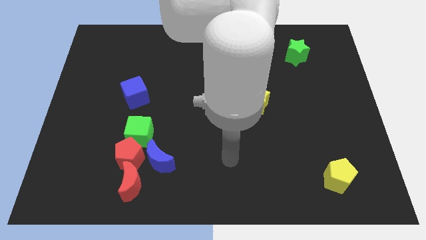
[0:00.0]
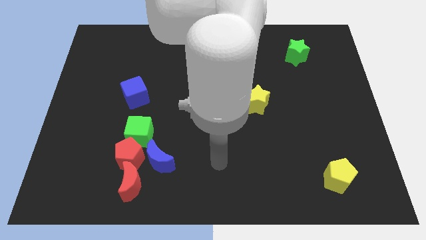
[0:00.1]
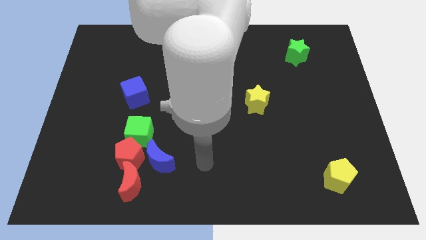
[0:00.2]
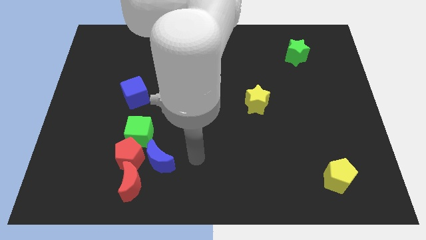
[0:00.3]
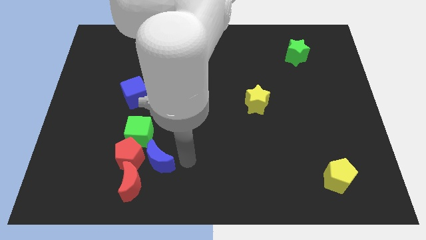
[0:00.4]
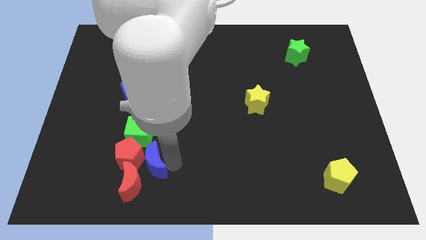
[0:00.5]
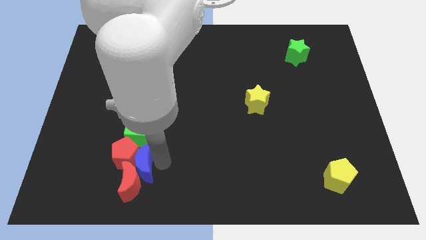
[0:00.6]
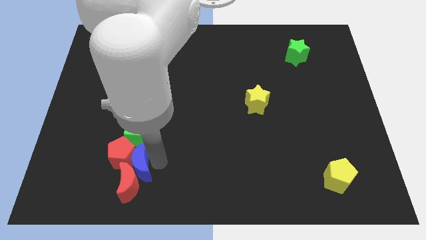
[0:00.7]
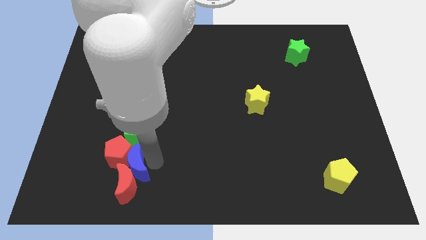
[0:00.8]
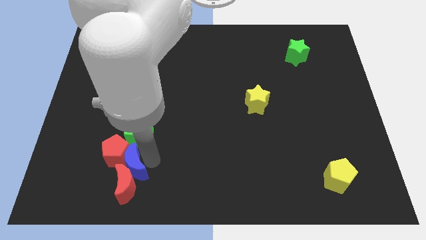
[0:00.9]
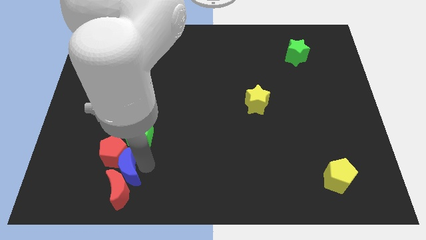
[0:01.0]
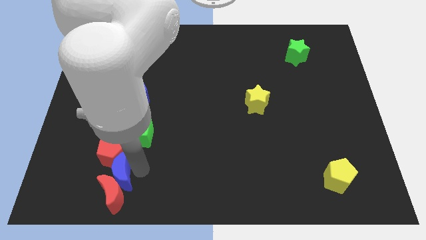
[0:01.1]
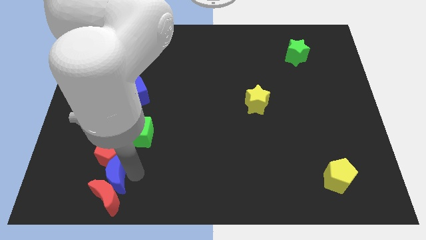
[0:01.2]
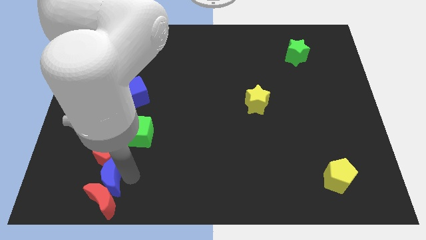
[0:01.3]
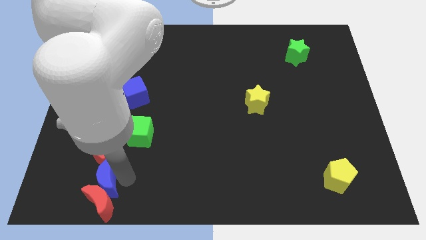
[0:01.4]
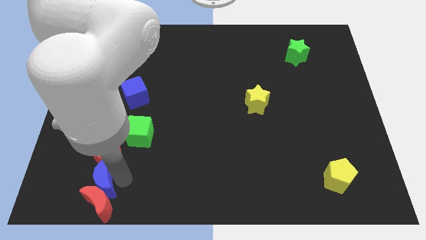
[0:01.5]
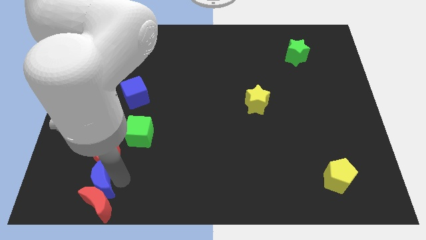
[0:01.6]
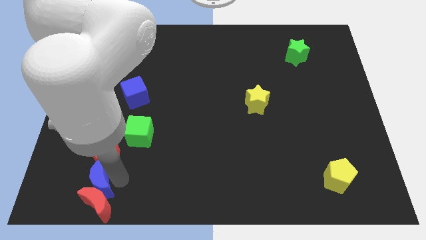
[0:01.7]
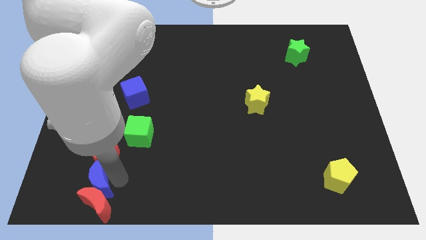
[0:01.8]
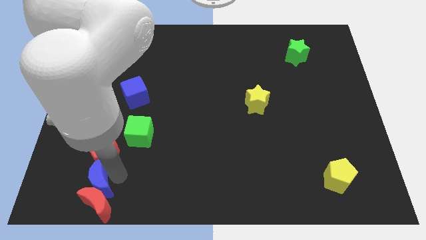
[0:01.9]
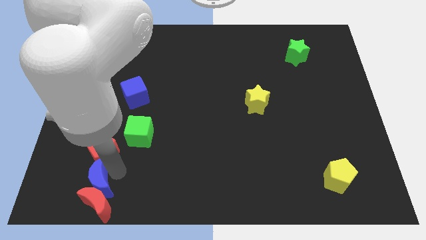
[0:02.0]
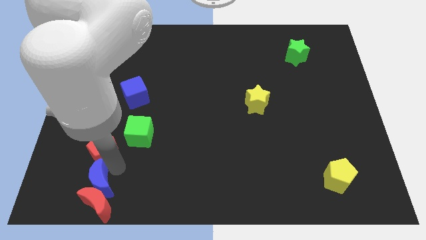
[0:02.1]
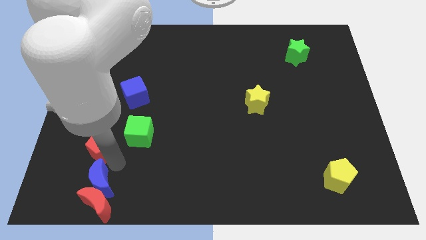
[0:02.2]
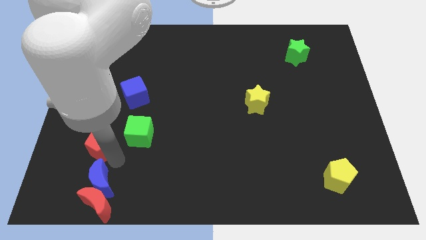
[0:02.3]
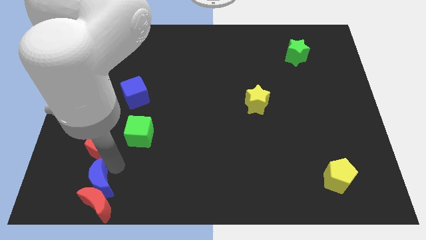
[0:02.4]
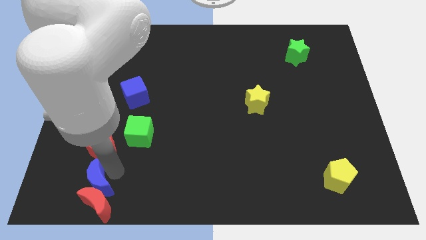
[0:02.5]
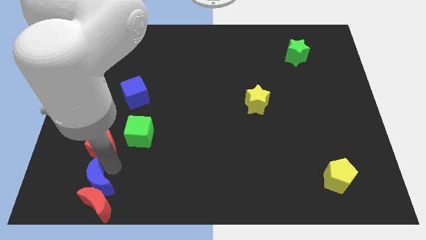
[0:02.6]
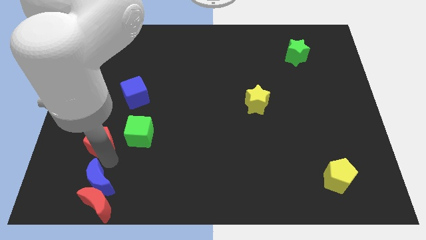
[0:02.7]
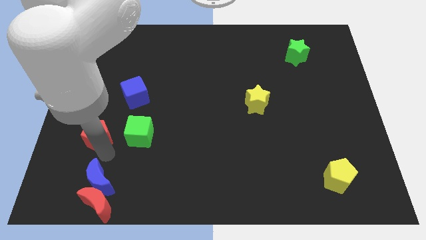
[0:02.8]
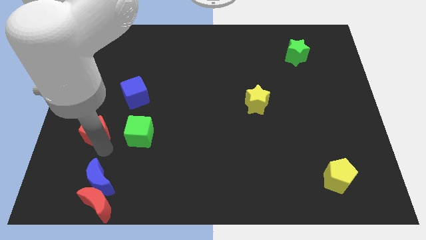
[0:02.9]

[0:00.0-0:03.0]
pull the red pentagon apart from the green cube, blue moon, and red moon

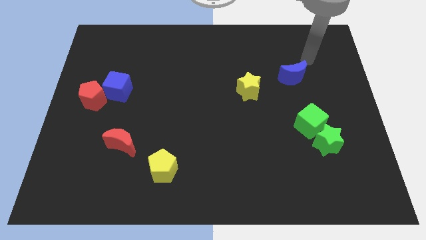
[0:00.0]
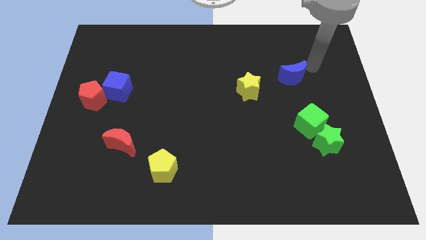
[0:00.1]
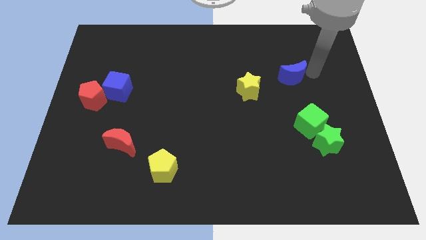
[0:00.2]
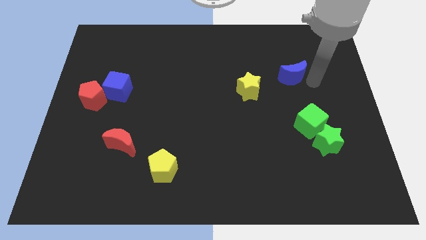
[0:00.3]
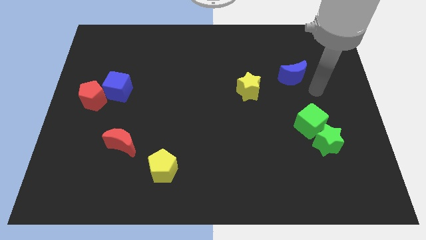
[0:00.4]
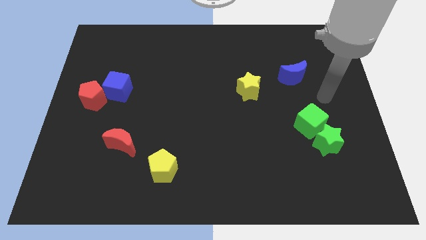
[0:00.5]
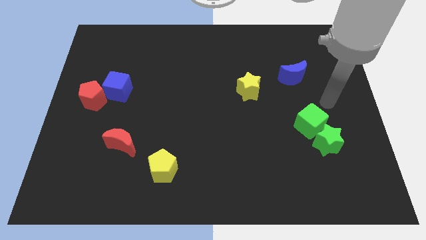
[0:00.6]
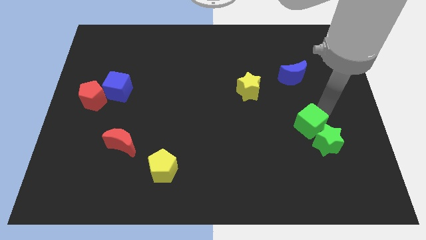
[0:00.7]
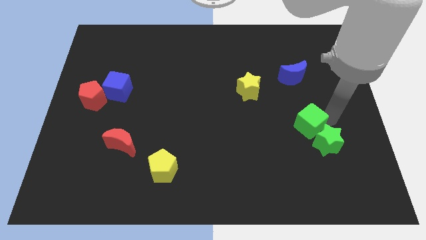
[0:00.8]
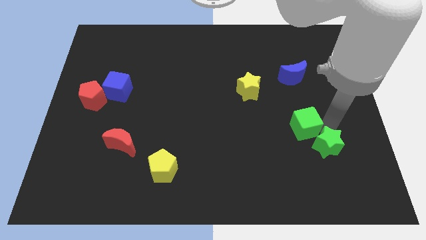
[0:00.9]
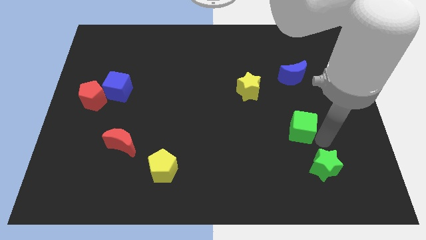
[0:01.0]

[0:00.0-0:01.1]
separate the green cube from the green star

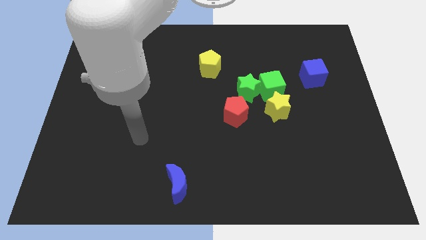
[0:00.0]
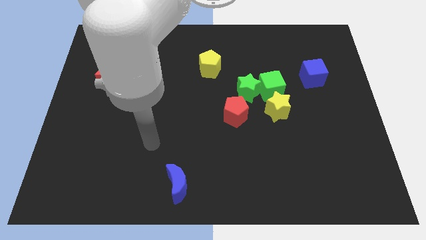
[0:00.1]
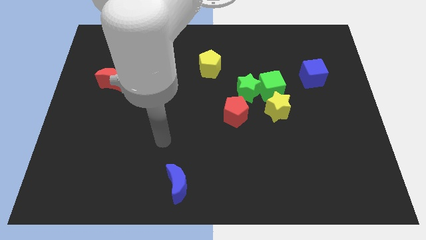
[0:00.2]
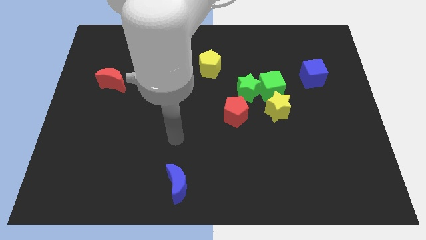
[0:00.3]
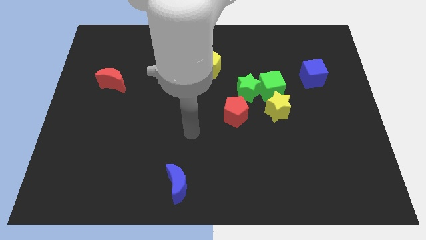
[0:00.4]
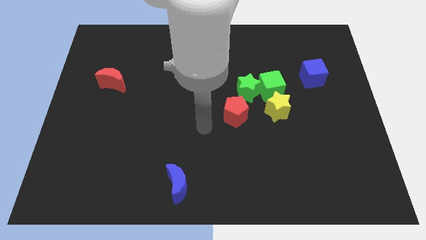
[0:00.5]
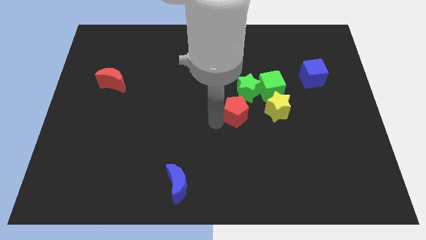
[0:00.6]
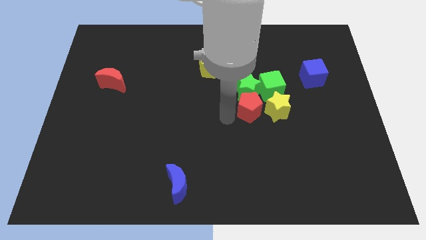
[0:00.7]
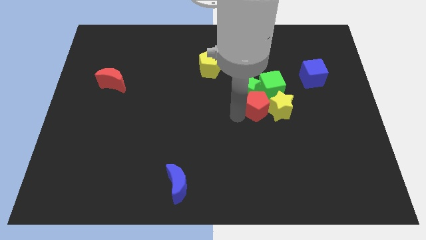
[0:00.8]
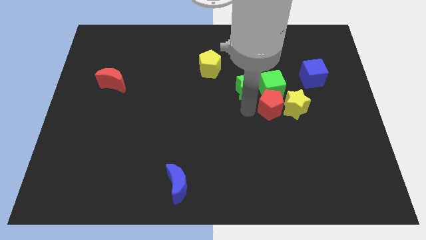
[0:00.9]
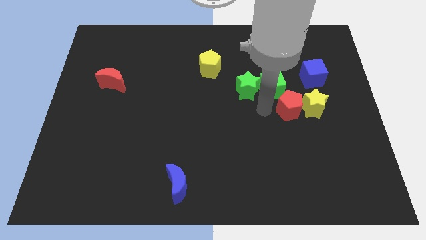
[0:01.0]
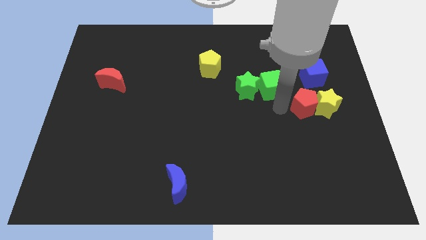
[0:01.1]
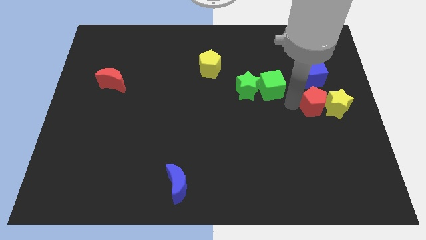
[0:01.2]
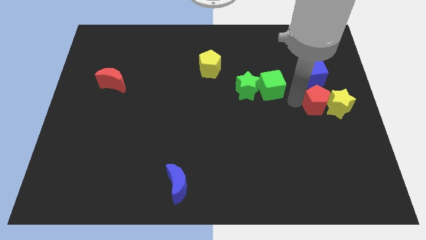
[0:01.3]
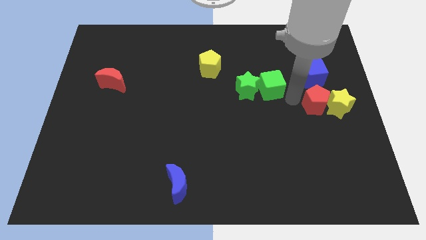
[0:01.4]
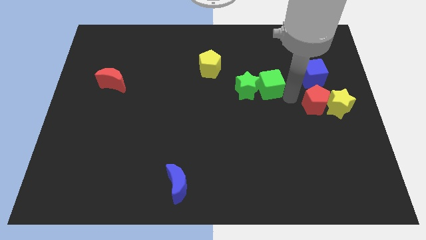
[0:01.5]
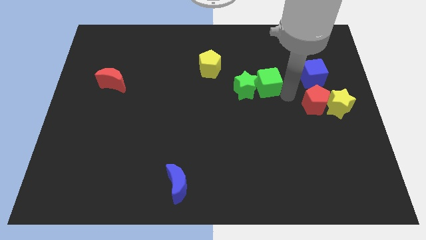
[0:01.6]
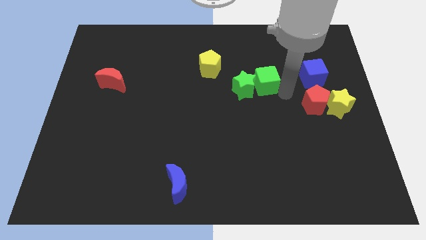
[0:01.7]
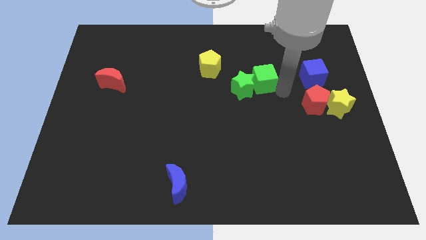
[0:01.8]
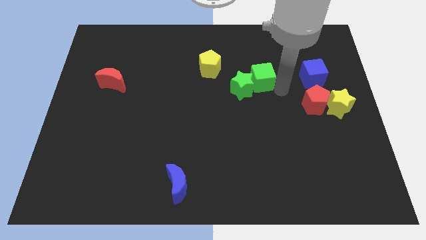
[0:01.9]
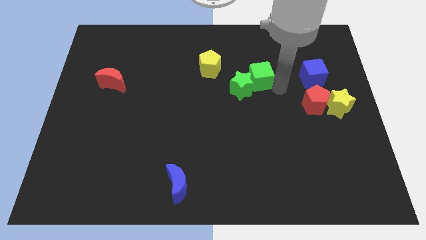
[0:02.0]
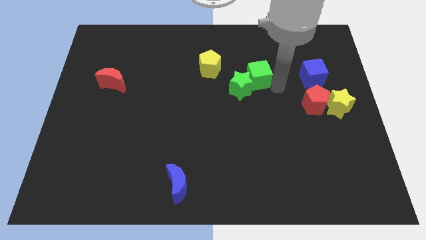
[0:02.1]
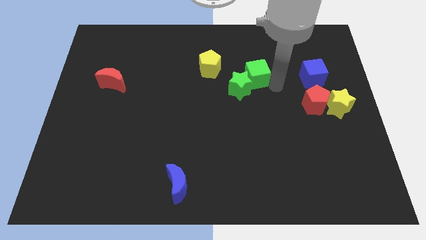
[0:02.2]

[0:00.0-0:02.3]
pull the green cube apart from the green star and yellow star

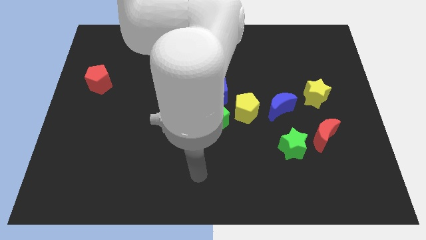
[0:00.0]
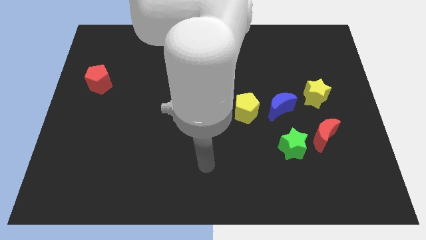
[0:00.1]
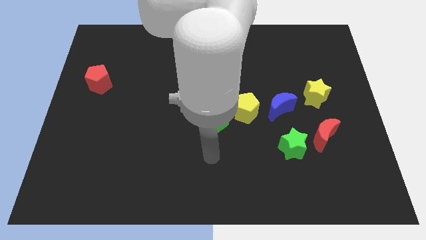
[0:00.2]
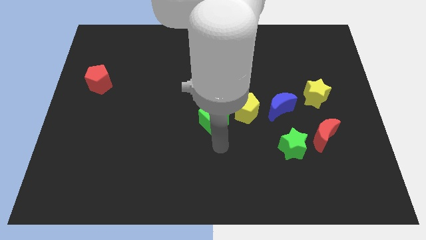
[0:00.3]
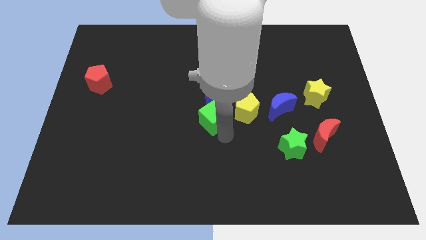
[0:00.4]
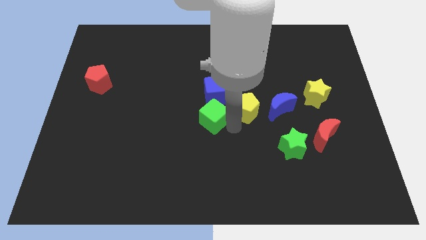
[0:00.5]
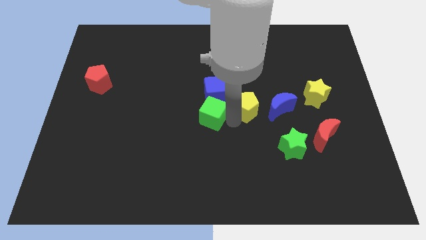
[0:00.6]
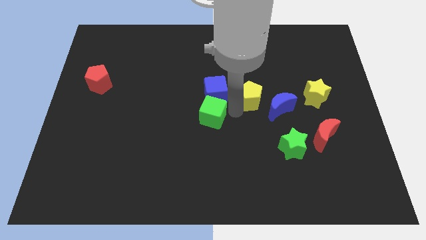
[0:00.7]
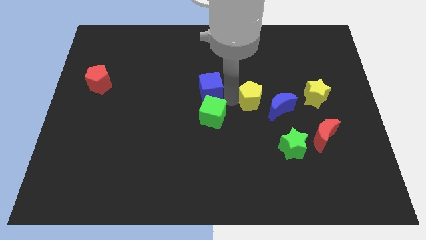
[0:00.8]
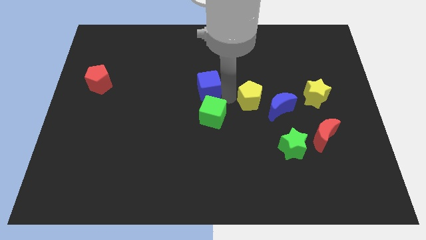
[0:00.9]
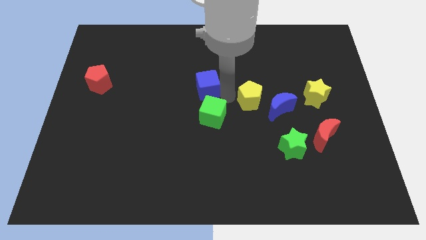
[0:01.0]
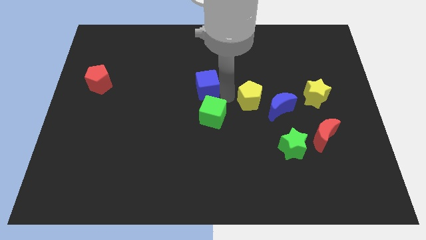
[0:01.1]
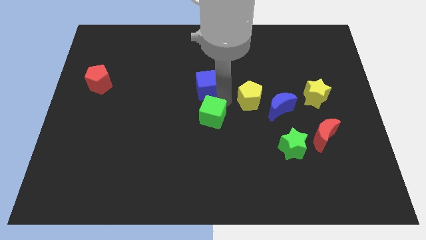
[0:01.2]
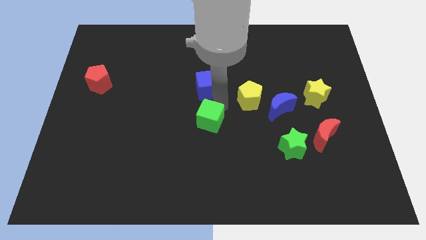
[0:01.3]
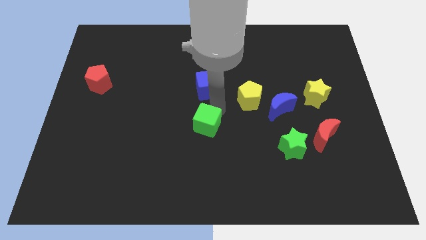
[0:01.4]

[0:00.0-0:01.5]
move the green cube away from the yellow pentagon and blue cube

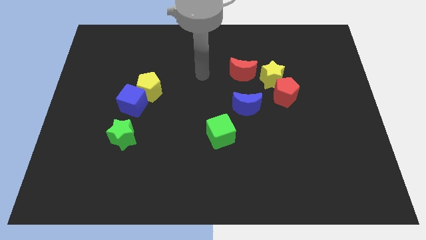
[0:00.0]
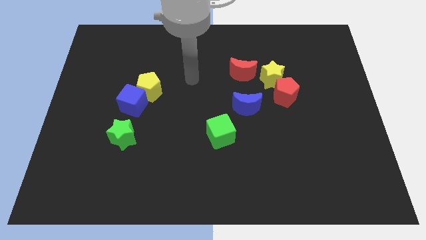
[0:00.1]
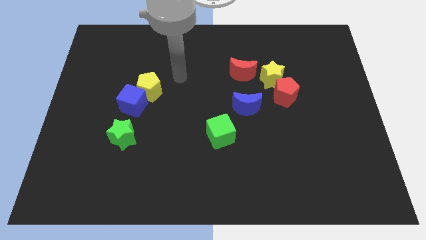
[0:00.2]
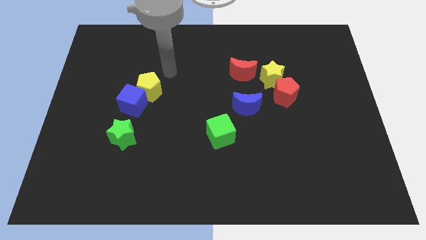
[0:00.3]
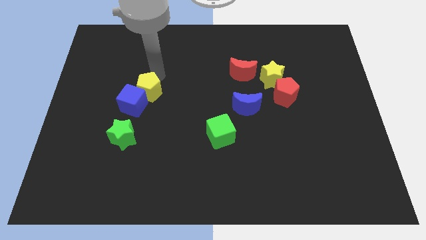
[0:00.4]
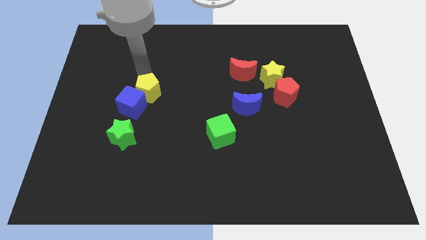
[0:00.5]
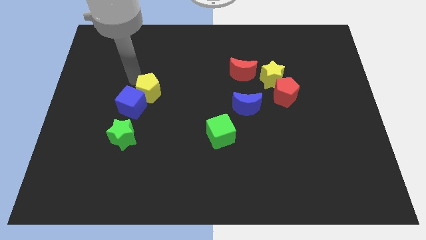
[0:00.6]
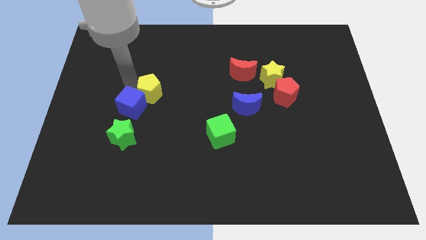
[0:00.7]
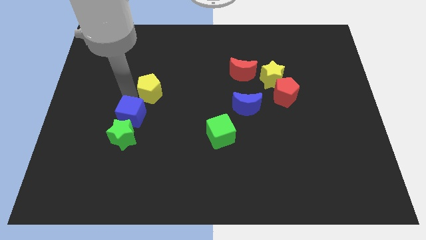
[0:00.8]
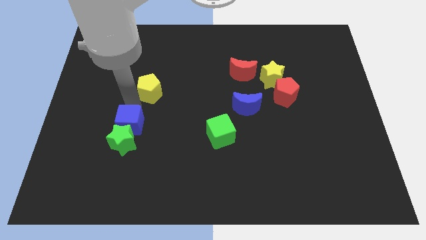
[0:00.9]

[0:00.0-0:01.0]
pull the yellow pentagon apart from the blue cube

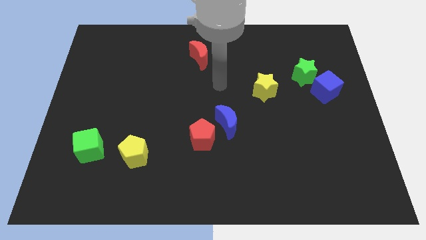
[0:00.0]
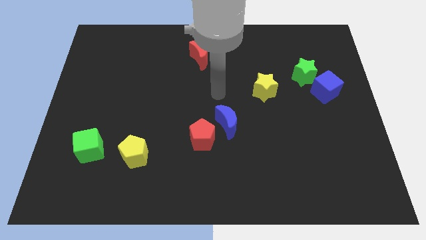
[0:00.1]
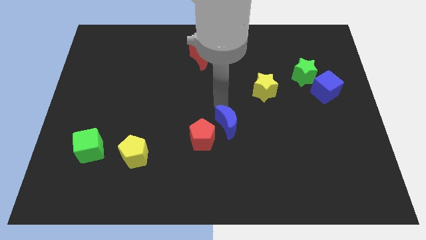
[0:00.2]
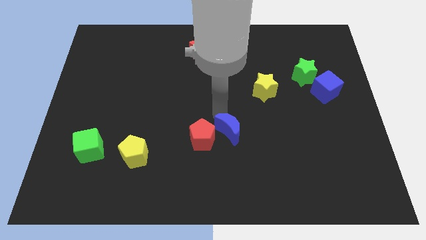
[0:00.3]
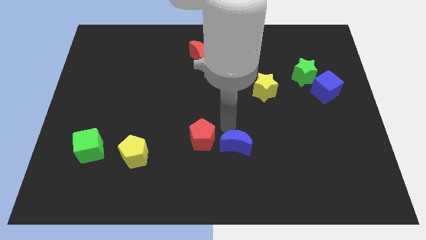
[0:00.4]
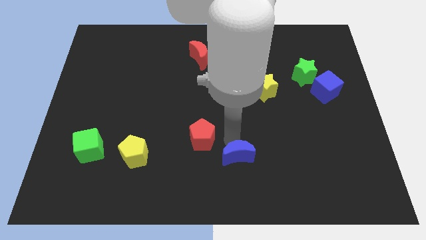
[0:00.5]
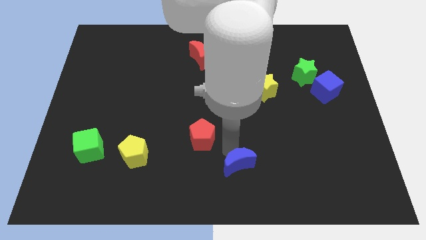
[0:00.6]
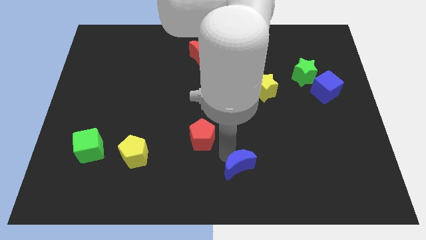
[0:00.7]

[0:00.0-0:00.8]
separate the red pentagon from the blue moon
